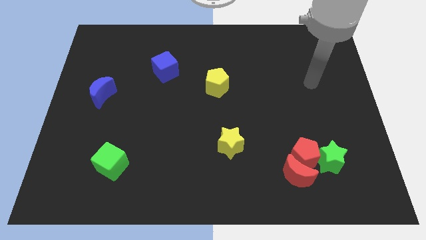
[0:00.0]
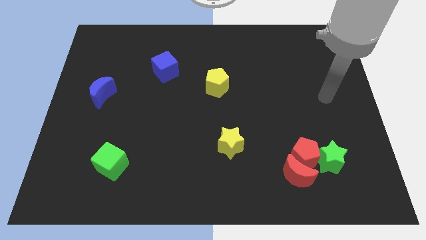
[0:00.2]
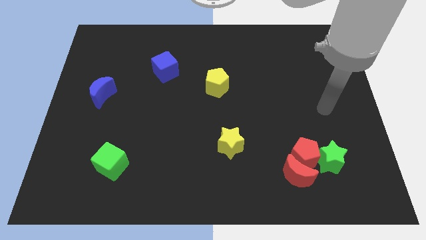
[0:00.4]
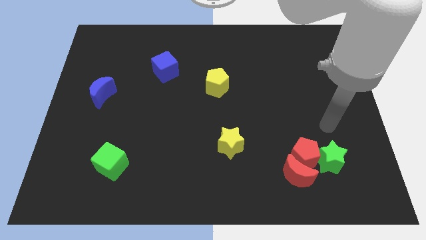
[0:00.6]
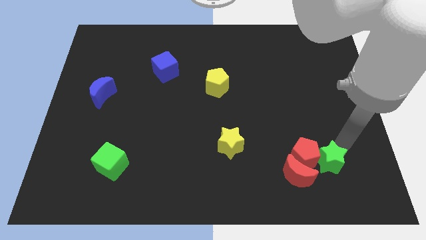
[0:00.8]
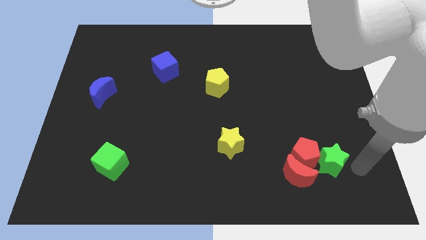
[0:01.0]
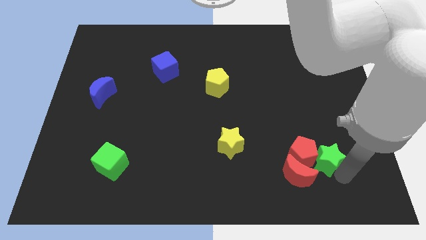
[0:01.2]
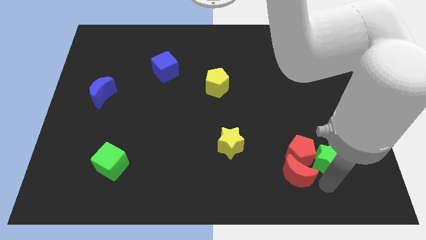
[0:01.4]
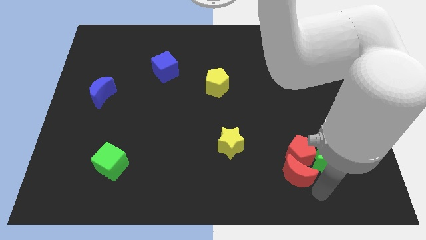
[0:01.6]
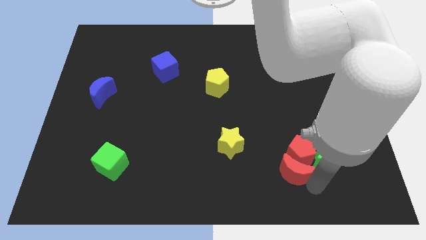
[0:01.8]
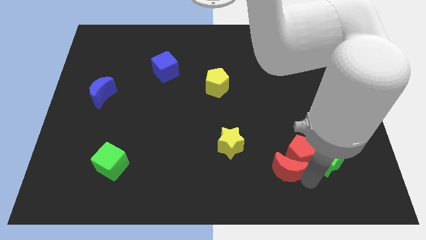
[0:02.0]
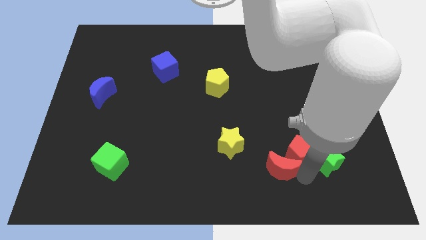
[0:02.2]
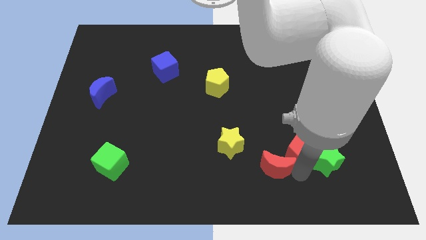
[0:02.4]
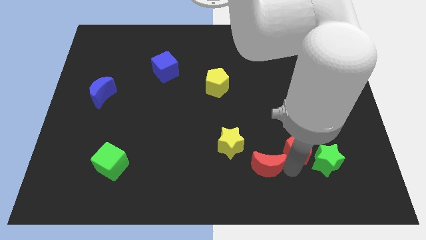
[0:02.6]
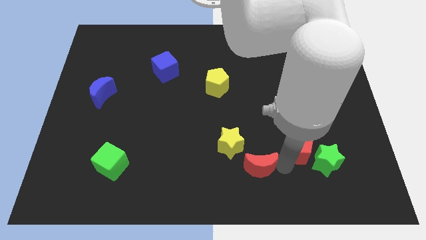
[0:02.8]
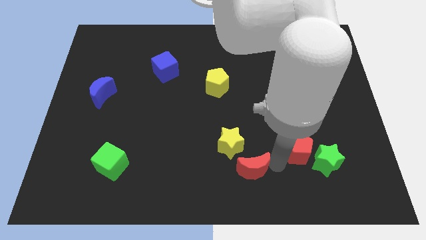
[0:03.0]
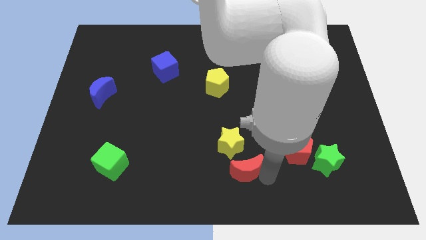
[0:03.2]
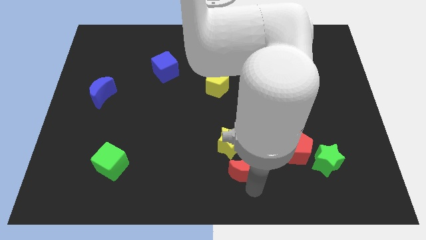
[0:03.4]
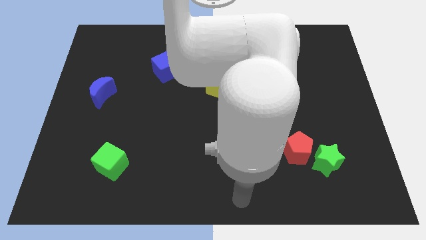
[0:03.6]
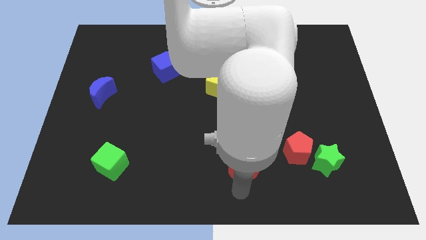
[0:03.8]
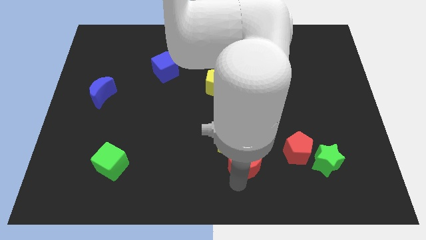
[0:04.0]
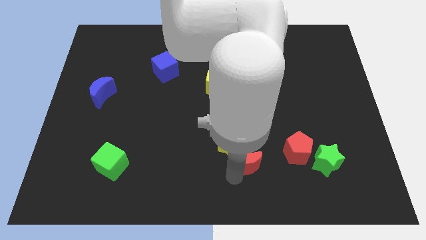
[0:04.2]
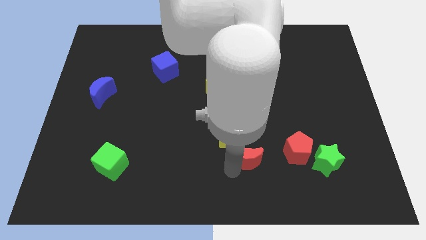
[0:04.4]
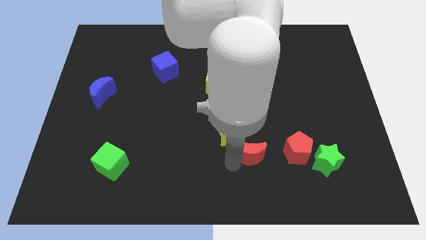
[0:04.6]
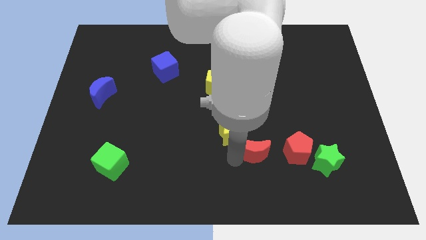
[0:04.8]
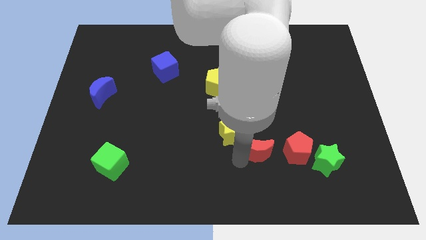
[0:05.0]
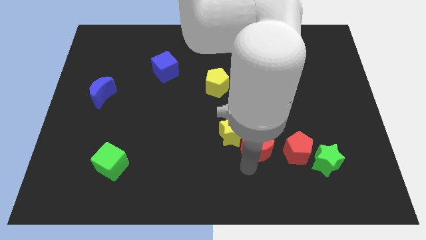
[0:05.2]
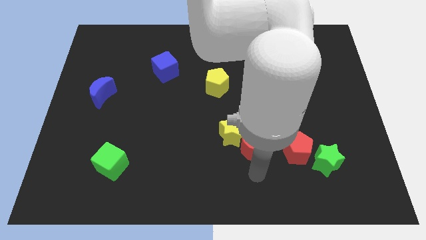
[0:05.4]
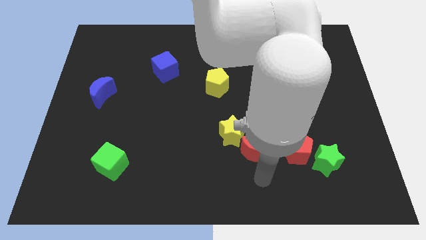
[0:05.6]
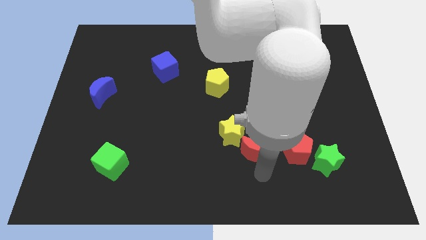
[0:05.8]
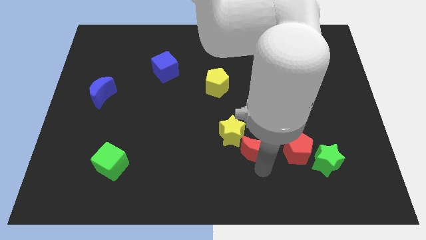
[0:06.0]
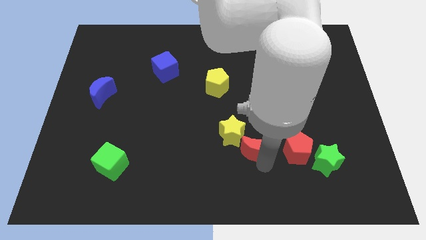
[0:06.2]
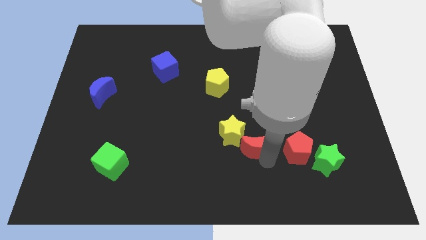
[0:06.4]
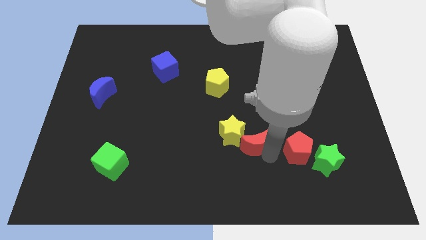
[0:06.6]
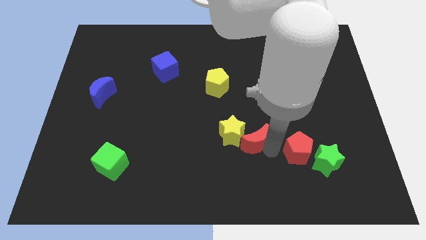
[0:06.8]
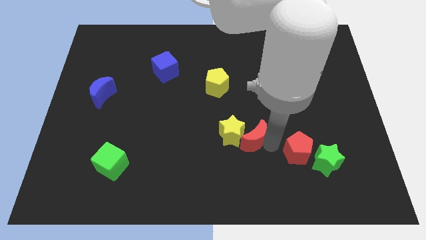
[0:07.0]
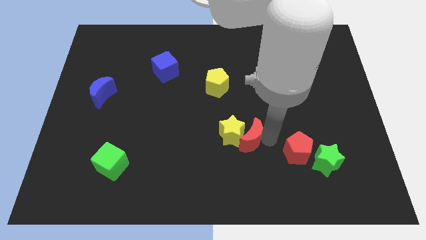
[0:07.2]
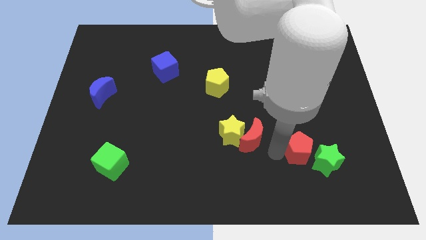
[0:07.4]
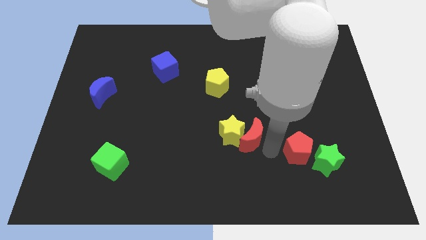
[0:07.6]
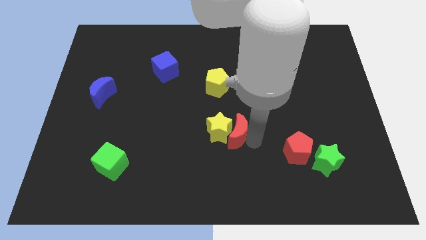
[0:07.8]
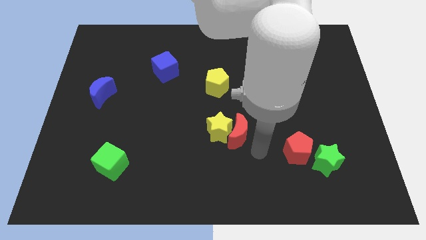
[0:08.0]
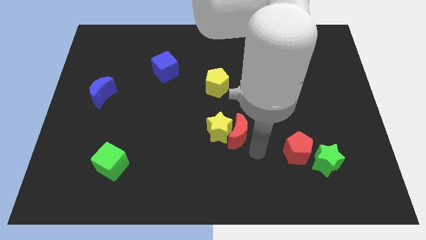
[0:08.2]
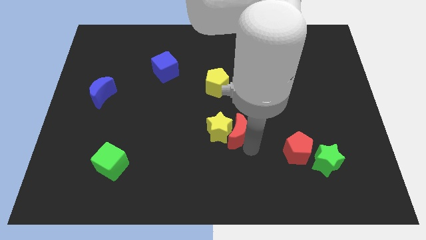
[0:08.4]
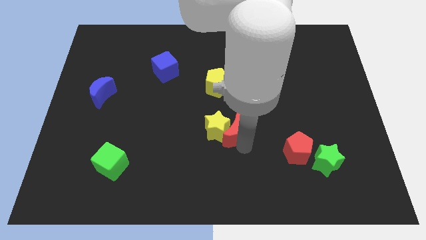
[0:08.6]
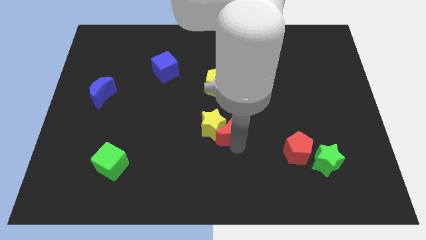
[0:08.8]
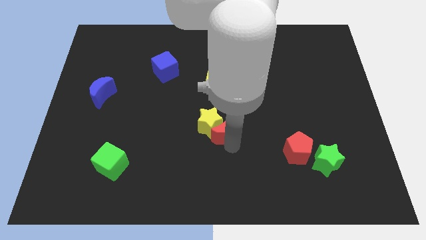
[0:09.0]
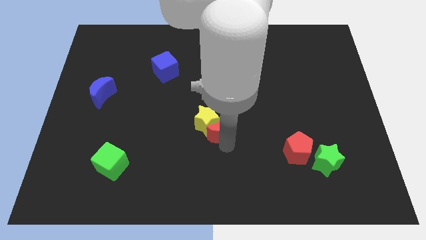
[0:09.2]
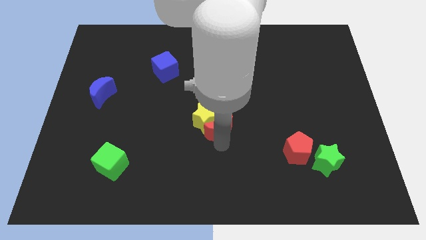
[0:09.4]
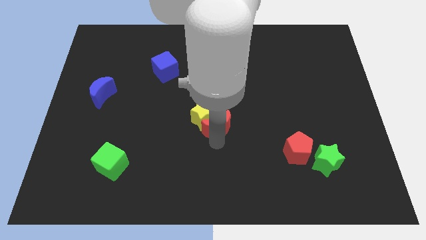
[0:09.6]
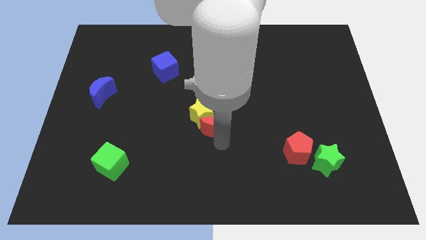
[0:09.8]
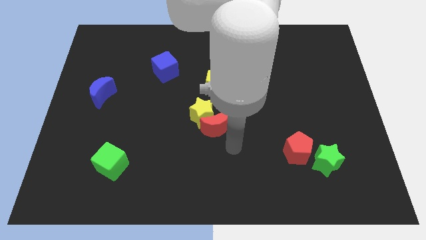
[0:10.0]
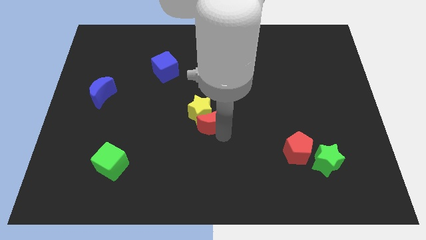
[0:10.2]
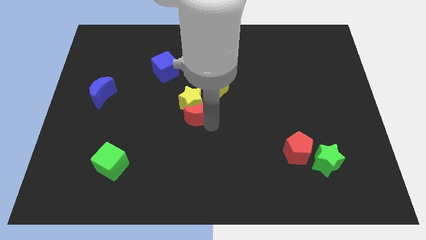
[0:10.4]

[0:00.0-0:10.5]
slide the red moon to the bottom left of the yellow pentagon

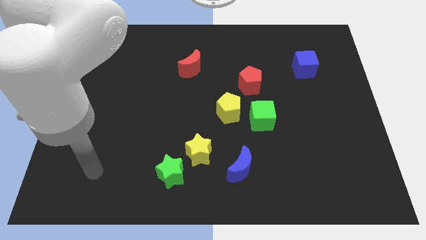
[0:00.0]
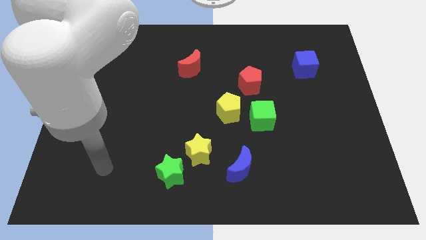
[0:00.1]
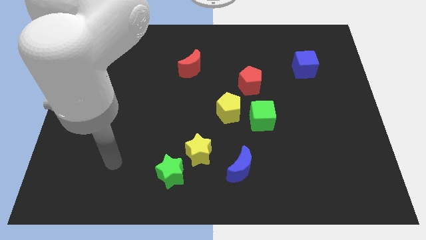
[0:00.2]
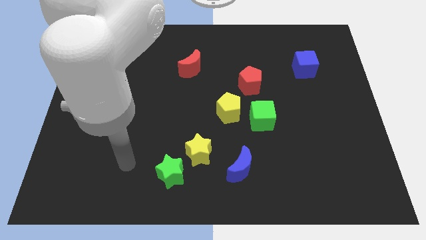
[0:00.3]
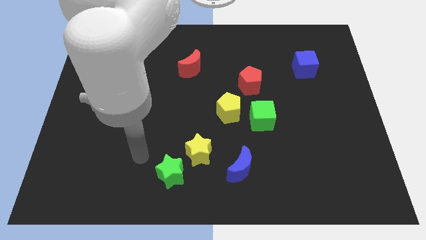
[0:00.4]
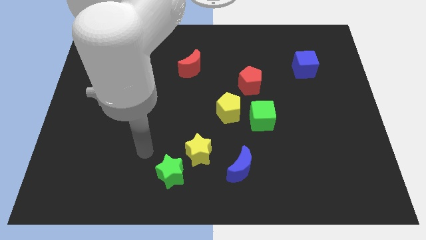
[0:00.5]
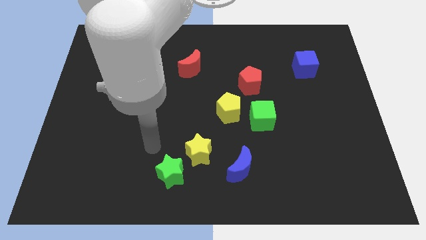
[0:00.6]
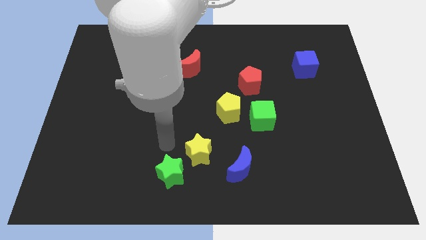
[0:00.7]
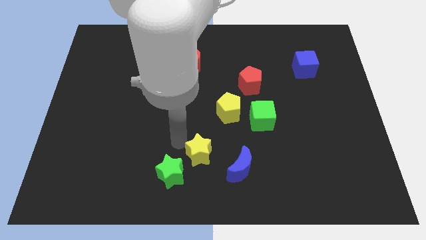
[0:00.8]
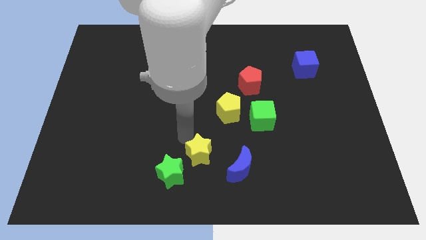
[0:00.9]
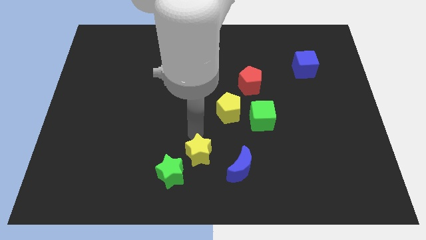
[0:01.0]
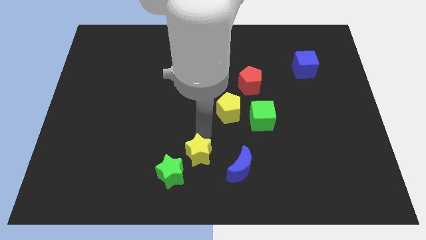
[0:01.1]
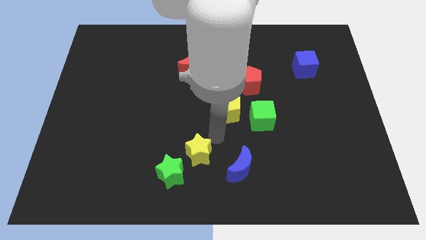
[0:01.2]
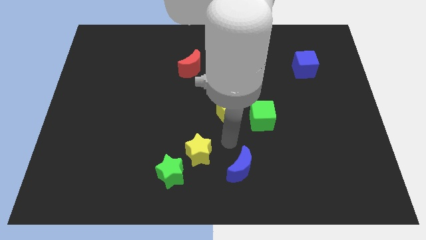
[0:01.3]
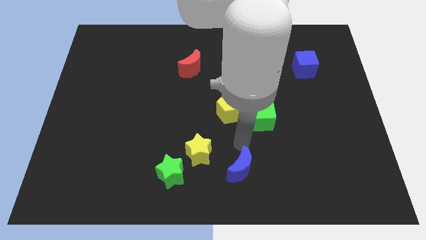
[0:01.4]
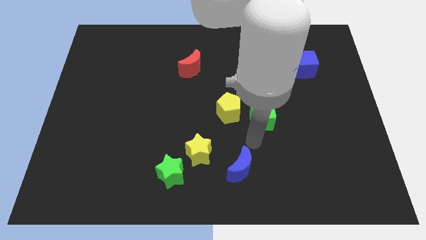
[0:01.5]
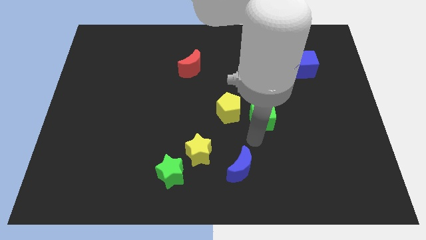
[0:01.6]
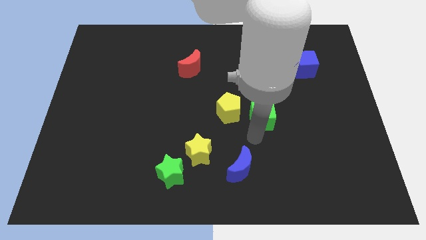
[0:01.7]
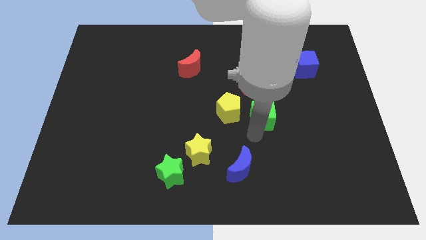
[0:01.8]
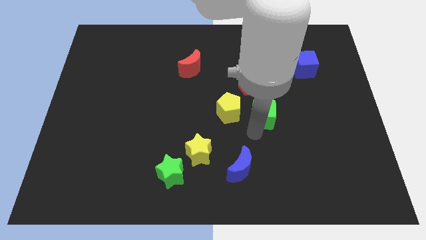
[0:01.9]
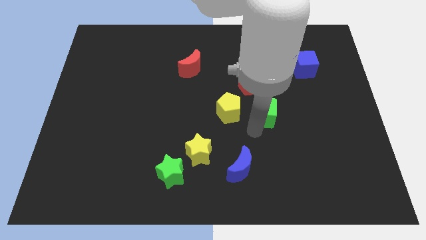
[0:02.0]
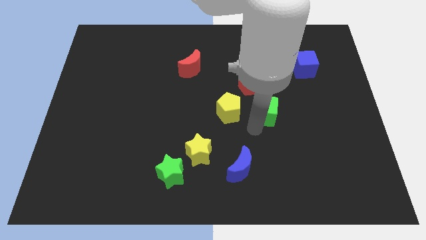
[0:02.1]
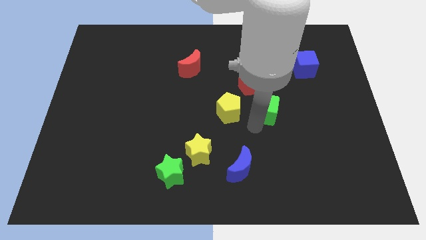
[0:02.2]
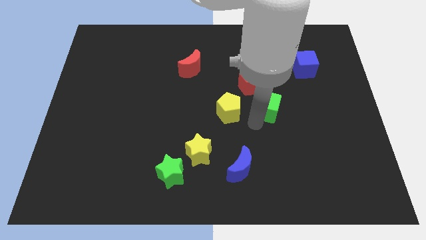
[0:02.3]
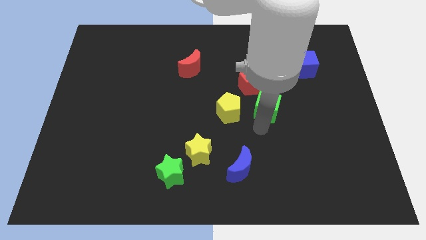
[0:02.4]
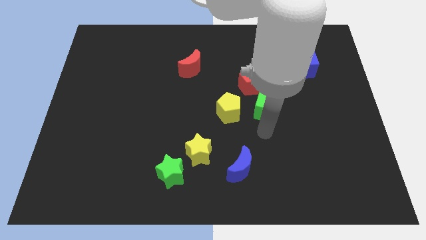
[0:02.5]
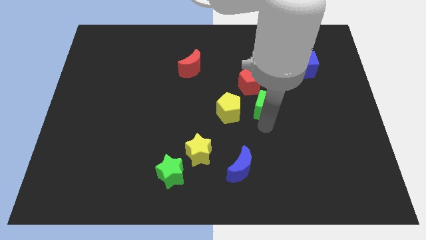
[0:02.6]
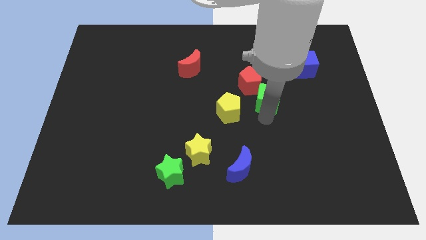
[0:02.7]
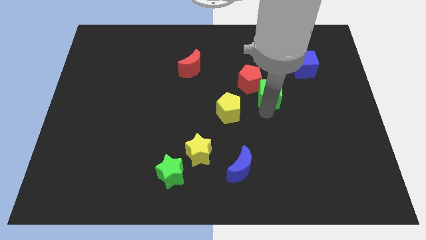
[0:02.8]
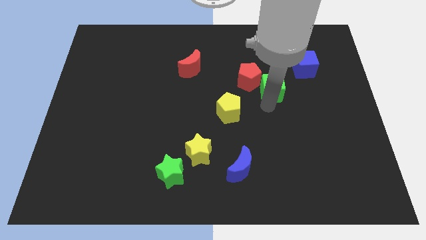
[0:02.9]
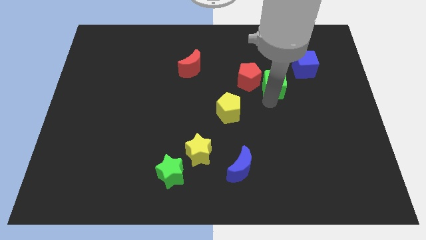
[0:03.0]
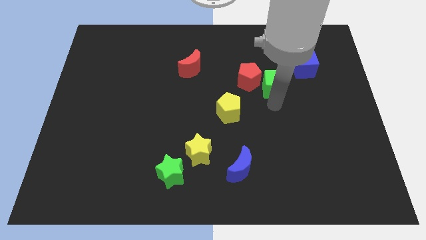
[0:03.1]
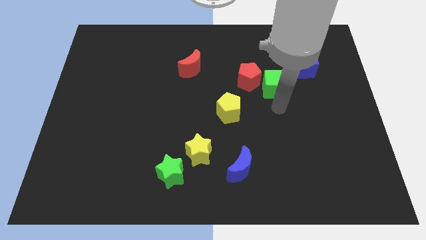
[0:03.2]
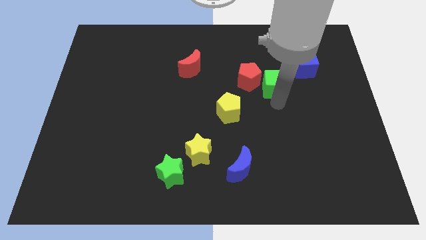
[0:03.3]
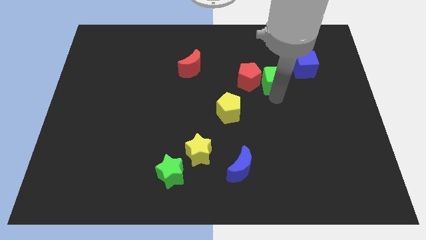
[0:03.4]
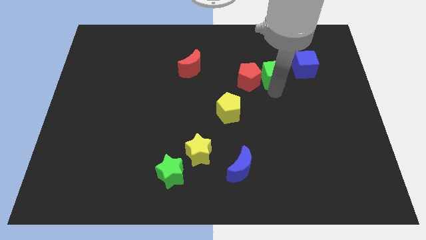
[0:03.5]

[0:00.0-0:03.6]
push the green cube to the top right side of the red pentagon
